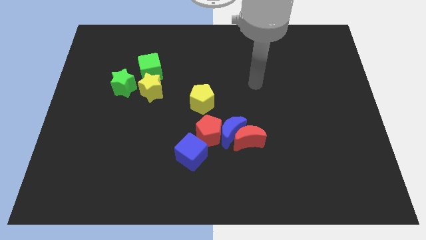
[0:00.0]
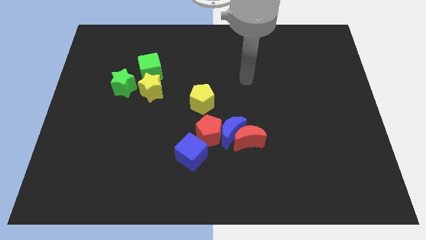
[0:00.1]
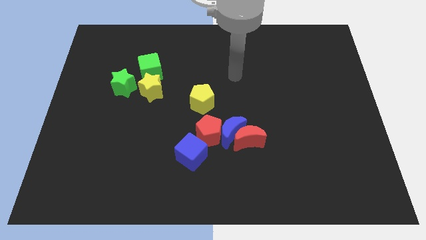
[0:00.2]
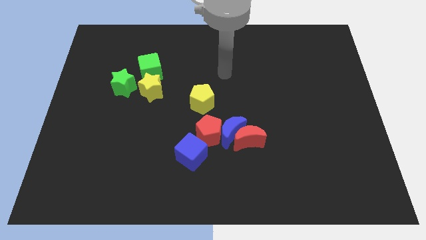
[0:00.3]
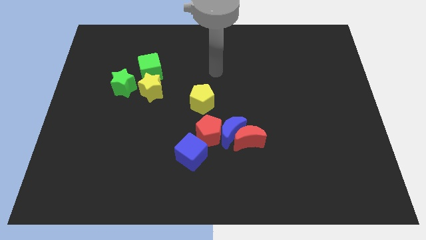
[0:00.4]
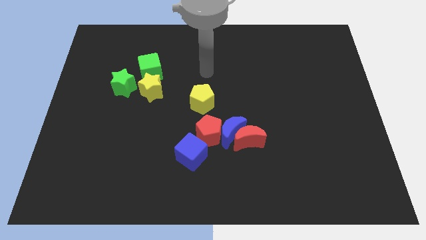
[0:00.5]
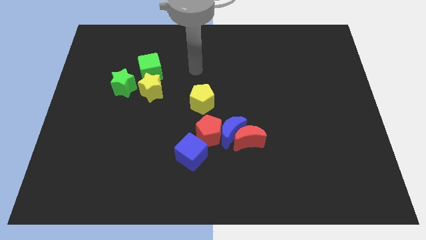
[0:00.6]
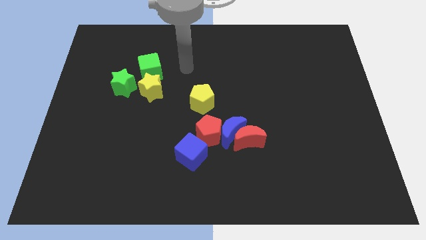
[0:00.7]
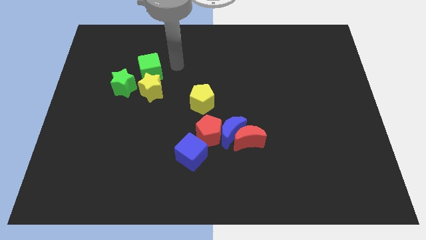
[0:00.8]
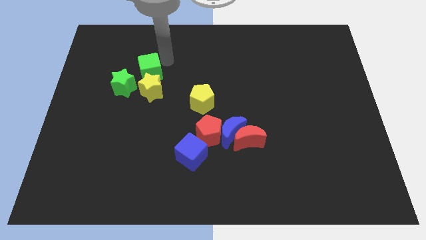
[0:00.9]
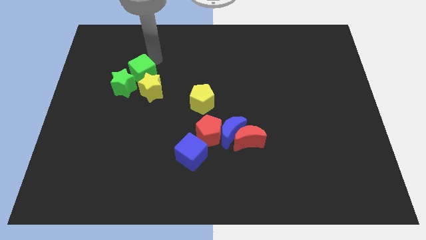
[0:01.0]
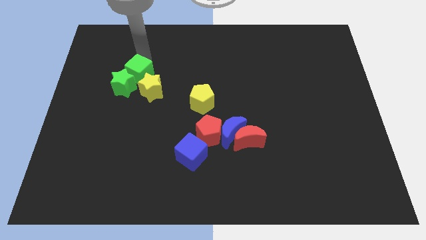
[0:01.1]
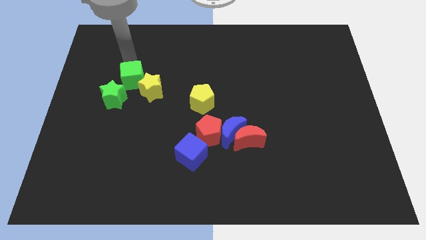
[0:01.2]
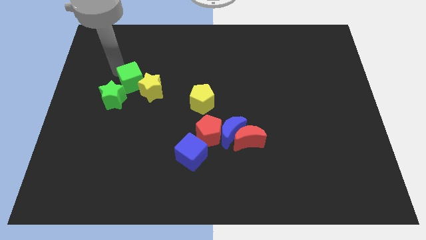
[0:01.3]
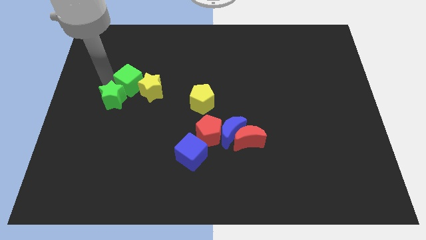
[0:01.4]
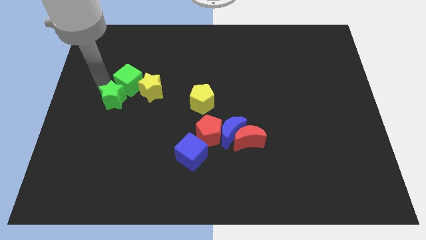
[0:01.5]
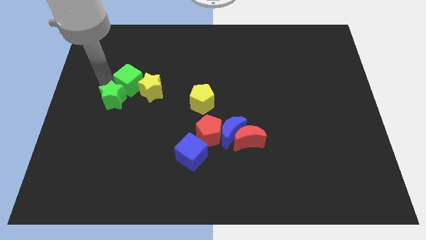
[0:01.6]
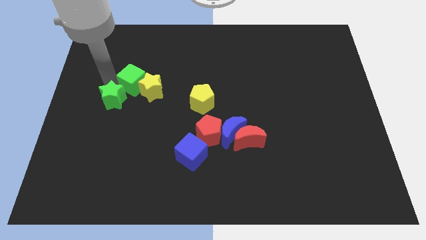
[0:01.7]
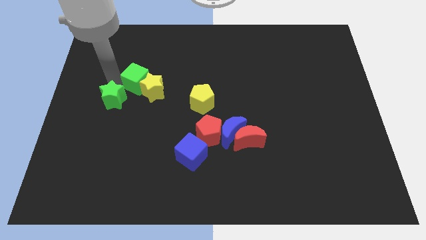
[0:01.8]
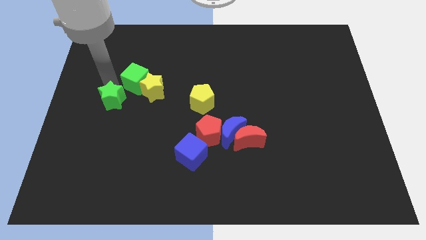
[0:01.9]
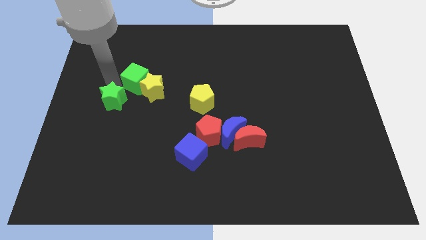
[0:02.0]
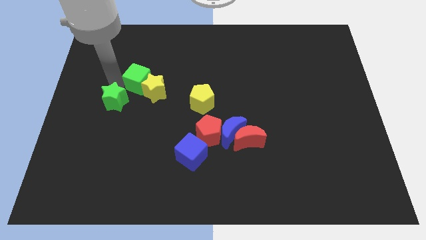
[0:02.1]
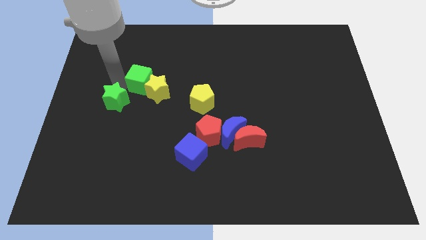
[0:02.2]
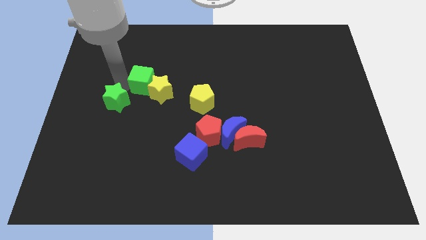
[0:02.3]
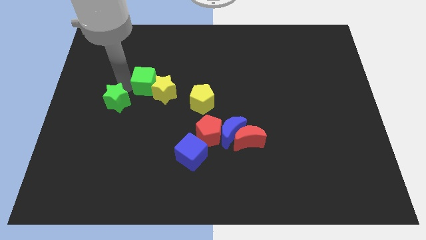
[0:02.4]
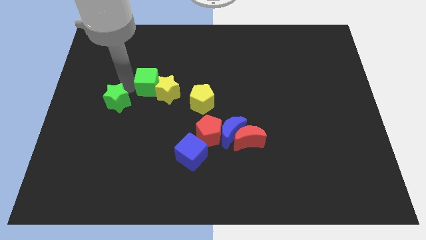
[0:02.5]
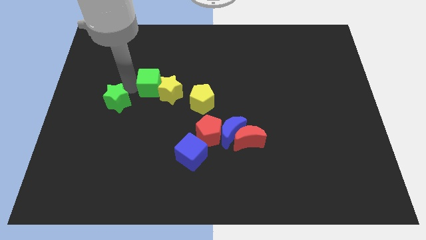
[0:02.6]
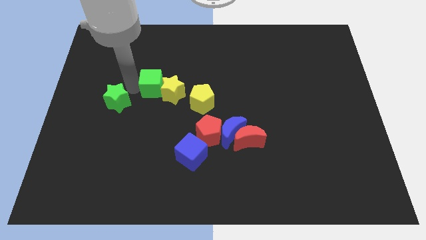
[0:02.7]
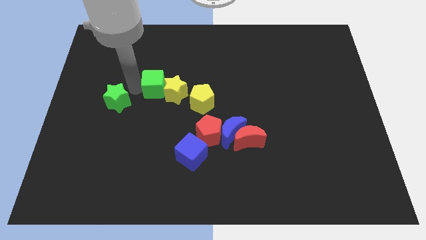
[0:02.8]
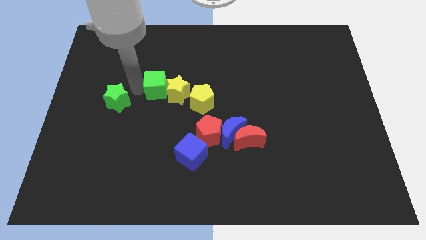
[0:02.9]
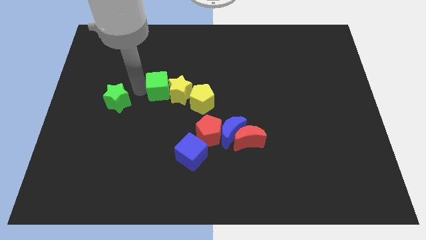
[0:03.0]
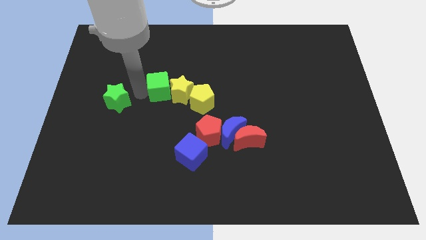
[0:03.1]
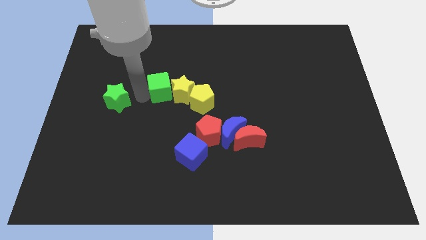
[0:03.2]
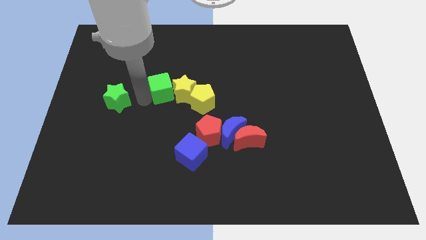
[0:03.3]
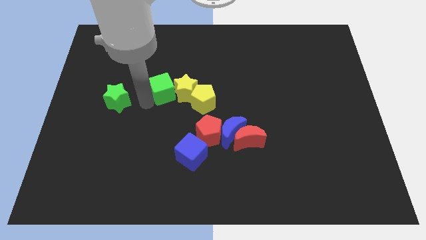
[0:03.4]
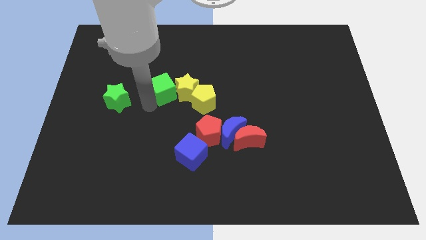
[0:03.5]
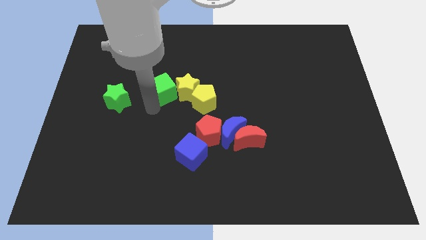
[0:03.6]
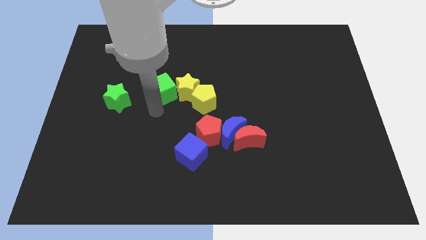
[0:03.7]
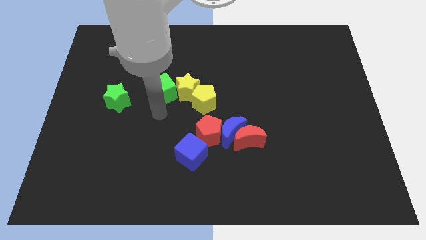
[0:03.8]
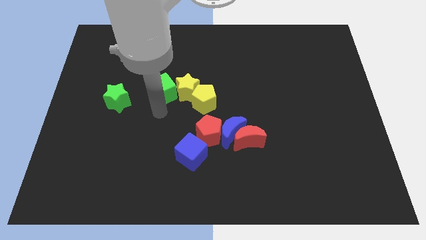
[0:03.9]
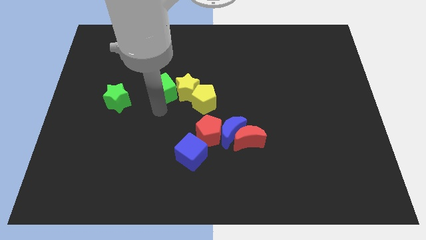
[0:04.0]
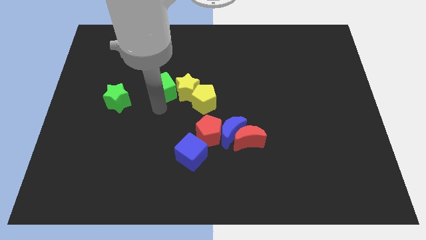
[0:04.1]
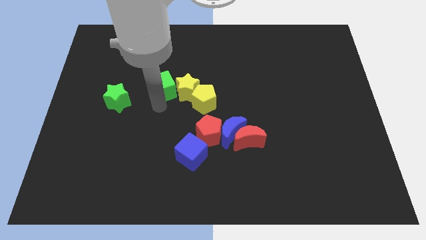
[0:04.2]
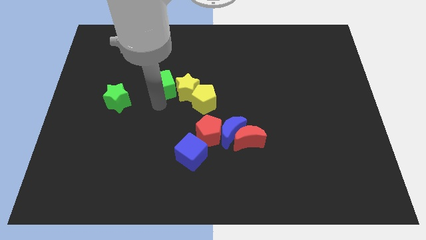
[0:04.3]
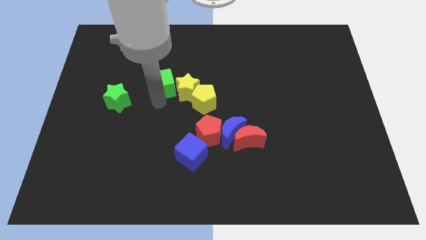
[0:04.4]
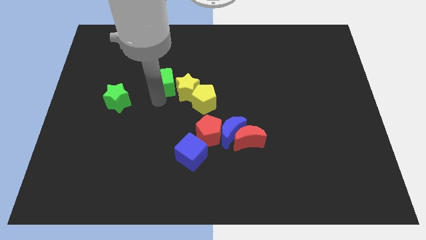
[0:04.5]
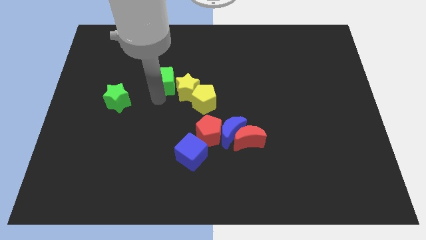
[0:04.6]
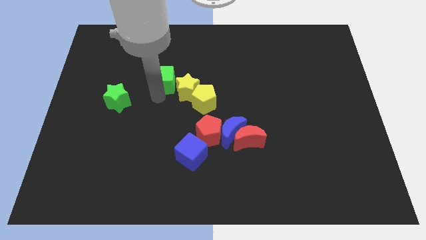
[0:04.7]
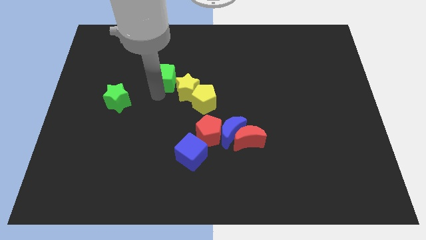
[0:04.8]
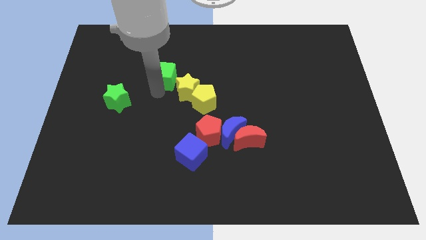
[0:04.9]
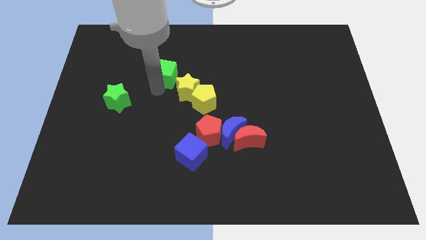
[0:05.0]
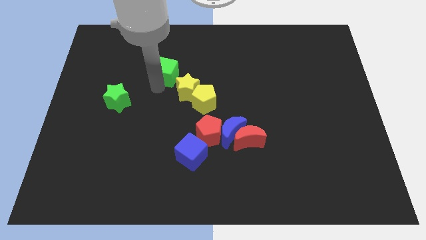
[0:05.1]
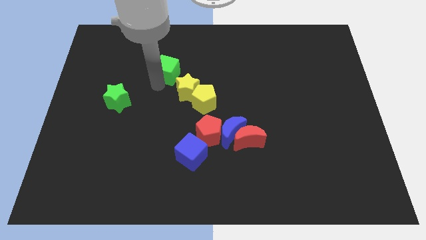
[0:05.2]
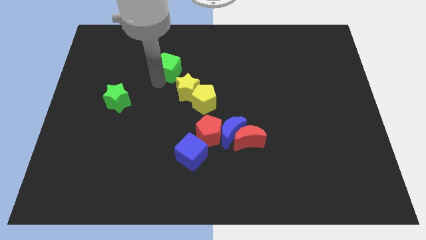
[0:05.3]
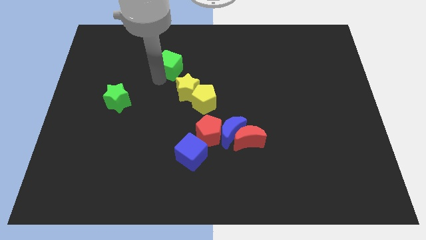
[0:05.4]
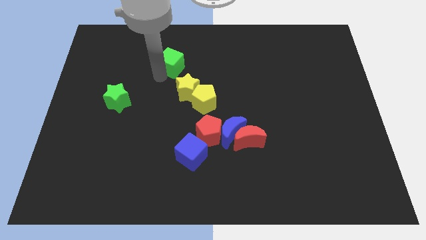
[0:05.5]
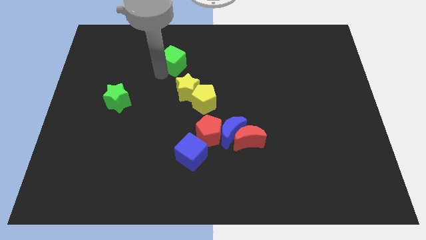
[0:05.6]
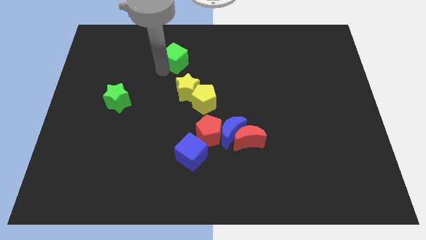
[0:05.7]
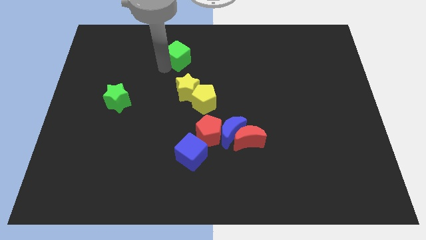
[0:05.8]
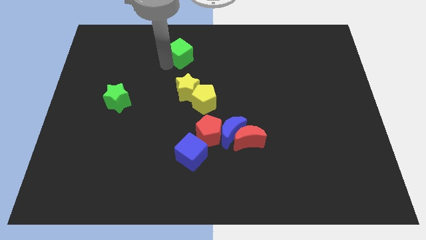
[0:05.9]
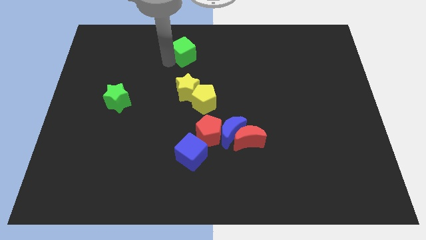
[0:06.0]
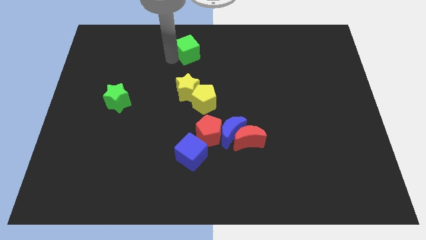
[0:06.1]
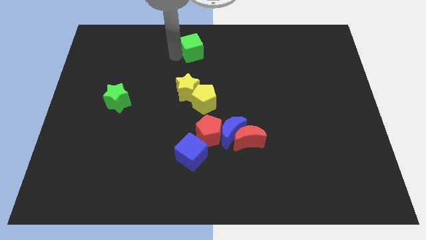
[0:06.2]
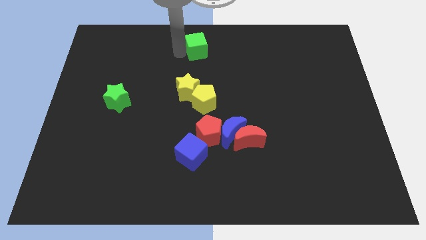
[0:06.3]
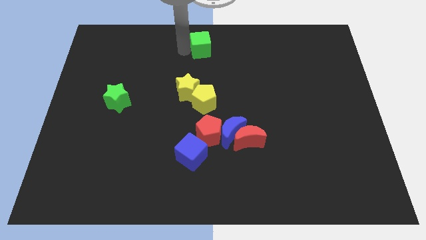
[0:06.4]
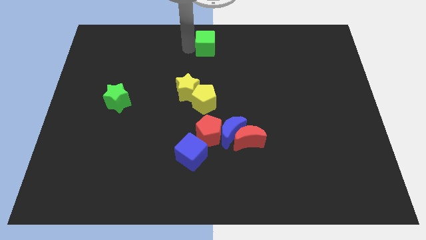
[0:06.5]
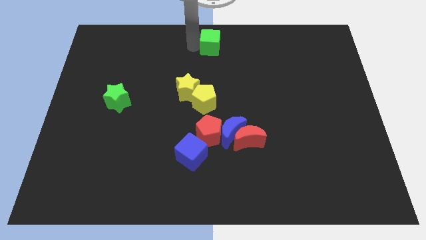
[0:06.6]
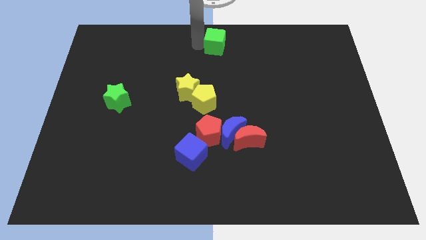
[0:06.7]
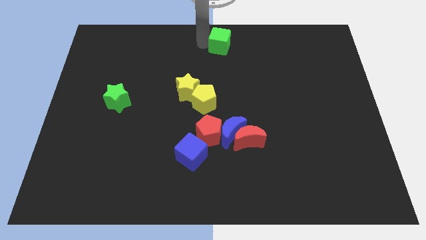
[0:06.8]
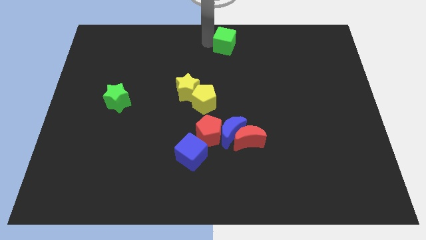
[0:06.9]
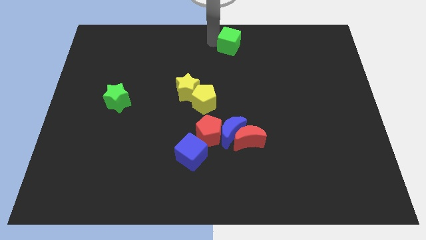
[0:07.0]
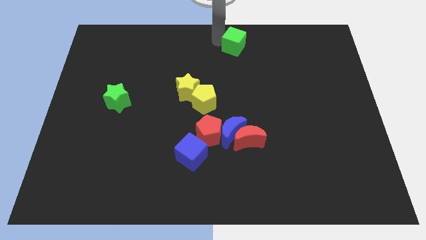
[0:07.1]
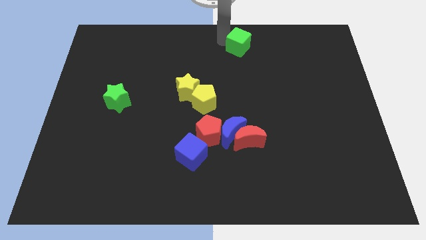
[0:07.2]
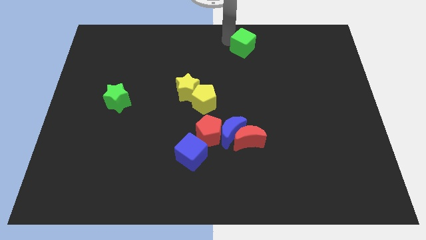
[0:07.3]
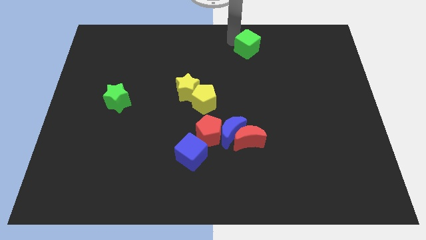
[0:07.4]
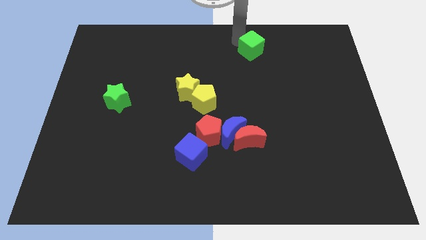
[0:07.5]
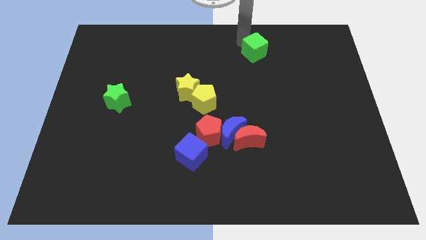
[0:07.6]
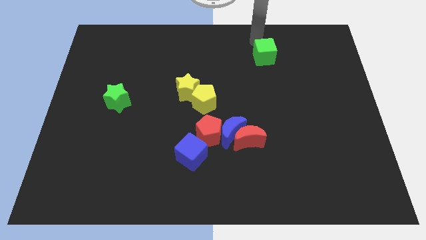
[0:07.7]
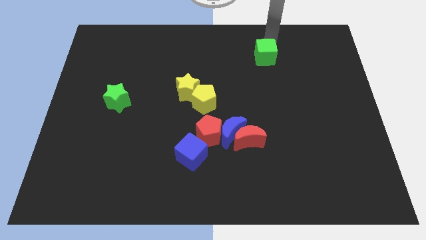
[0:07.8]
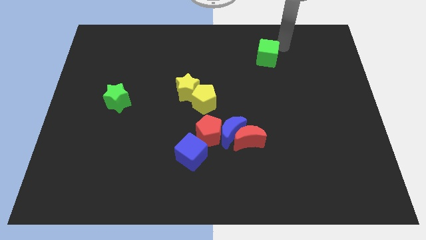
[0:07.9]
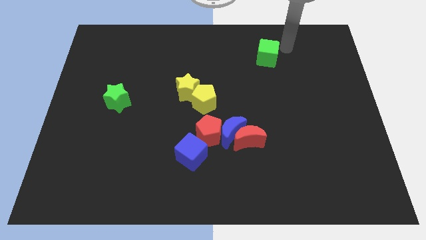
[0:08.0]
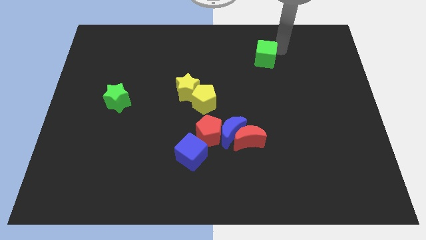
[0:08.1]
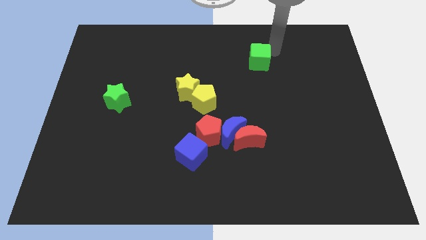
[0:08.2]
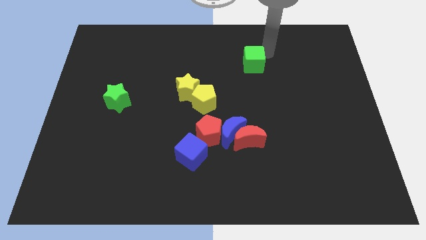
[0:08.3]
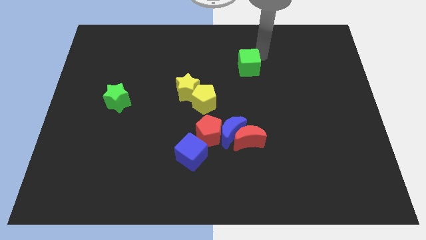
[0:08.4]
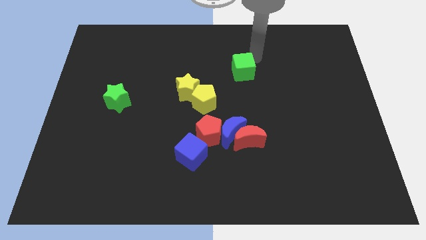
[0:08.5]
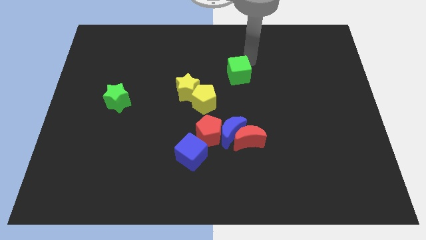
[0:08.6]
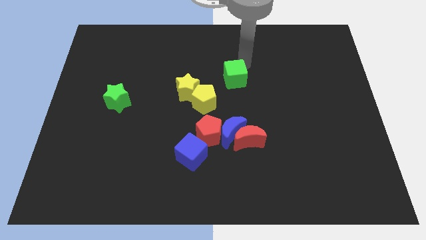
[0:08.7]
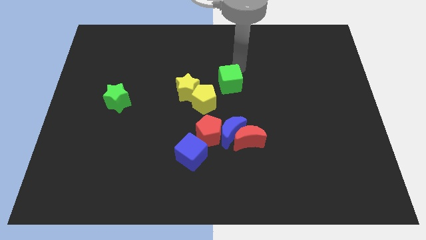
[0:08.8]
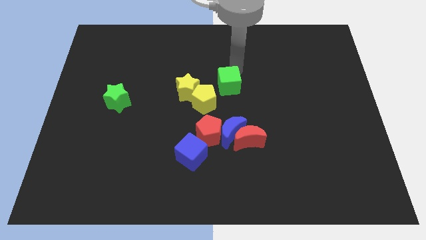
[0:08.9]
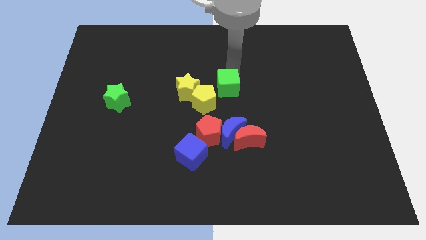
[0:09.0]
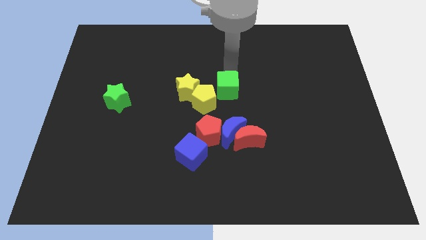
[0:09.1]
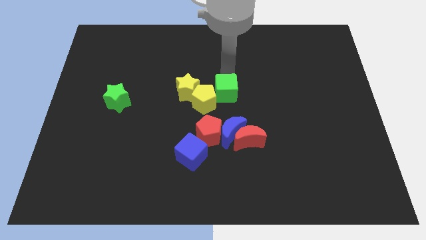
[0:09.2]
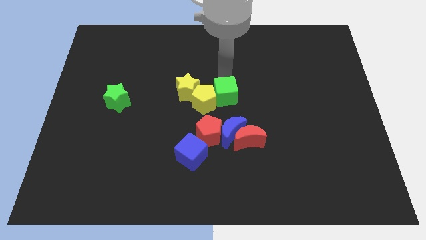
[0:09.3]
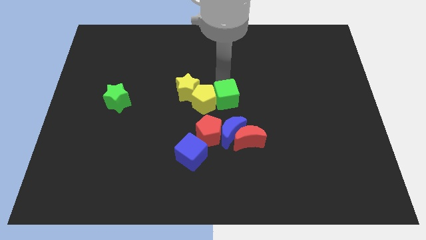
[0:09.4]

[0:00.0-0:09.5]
put the green cube diagonally down and to the right of the yellow pentagon
